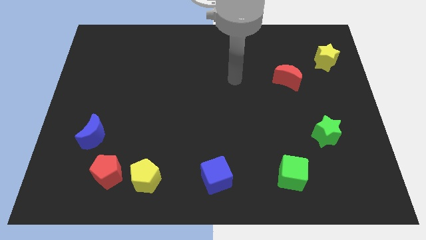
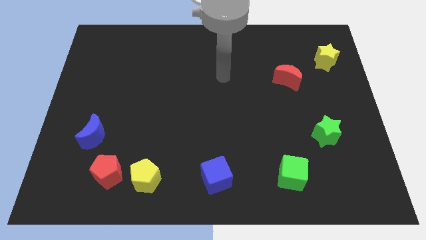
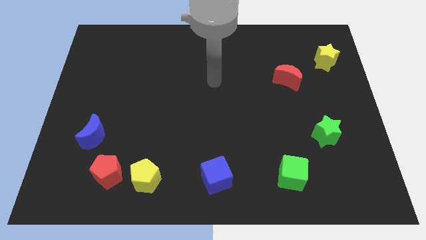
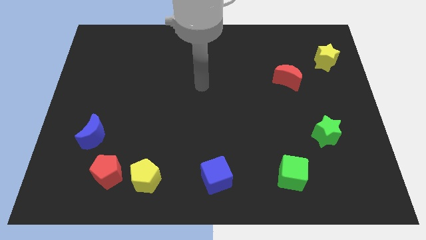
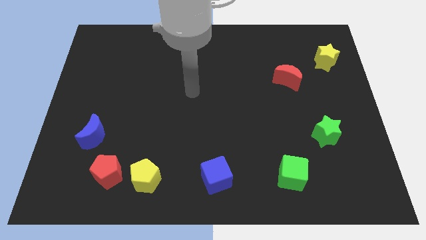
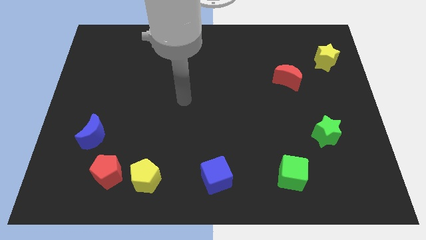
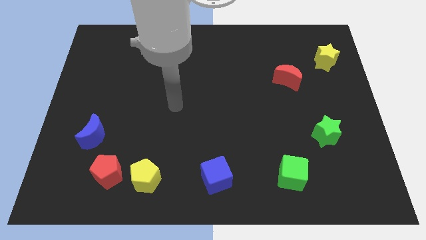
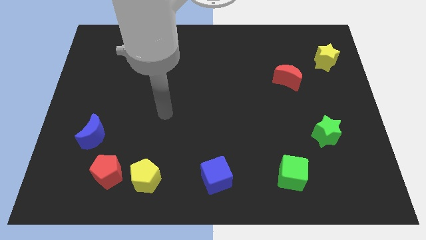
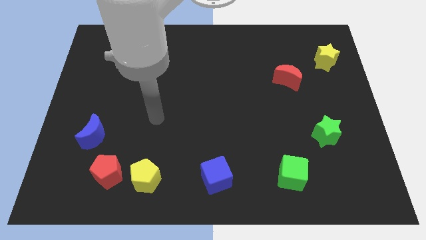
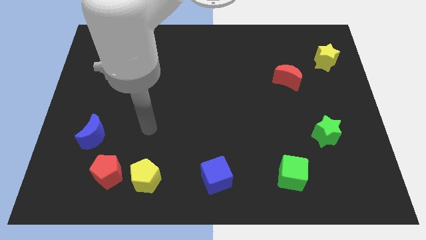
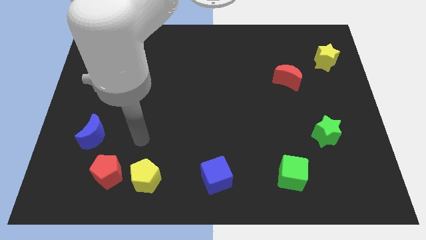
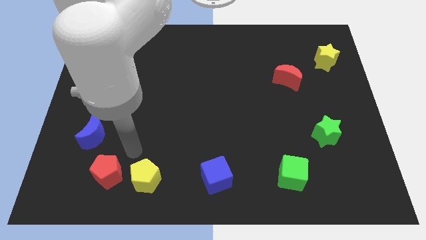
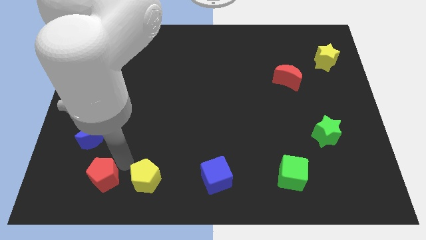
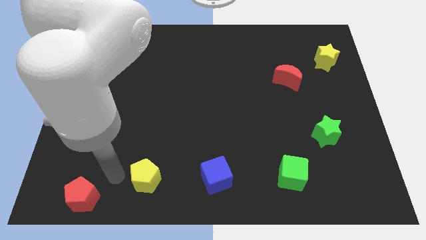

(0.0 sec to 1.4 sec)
pull the yellow pentagon apart from the red pentagon

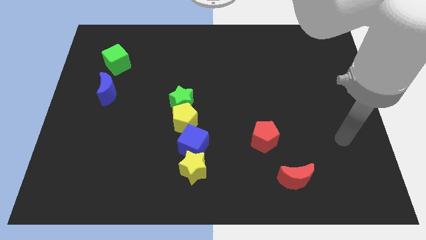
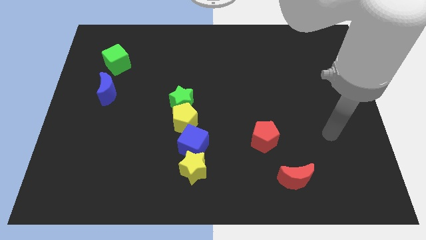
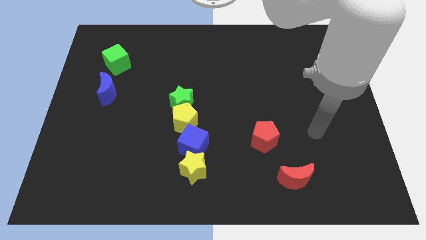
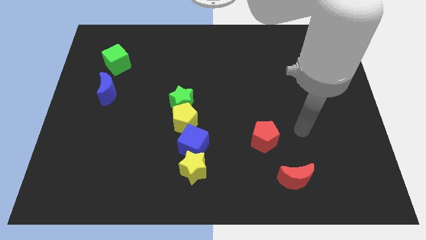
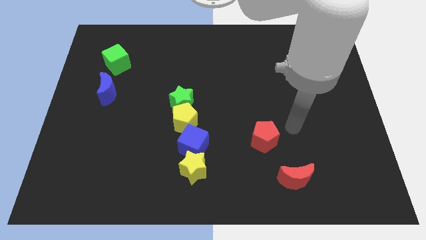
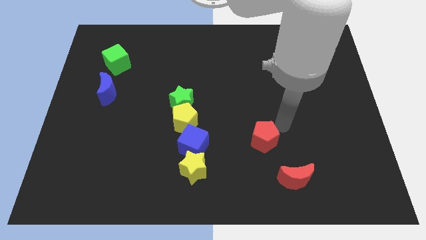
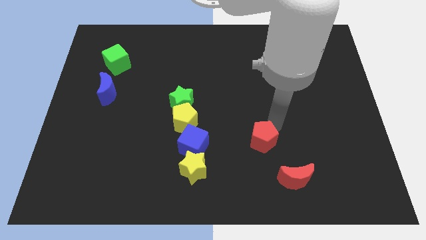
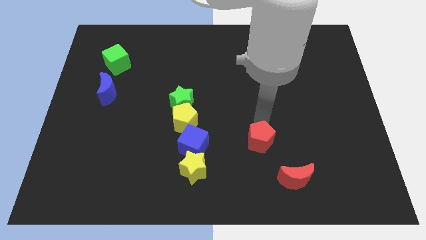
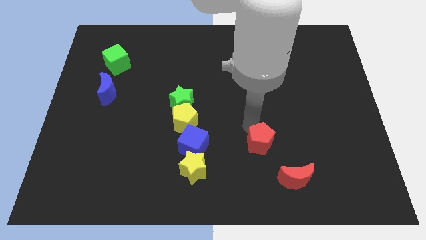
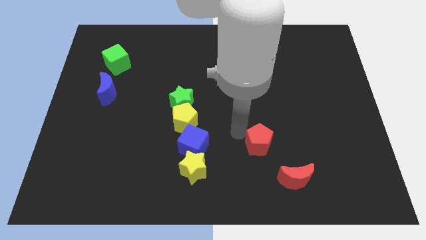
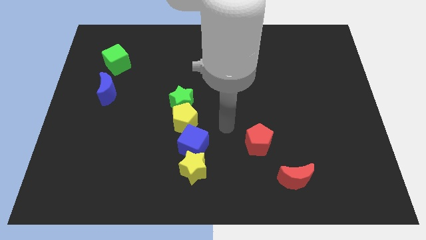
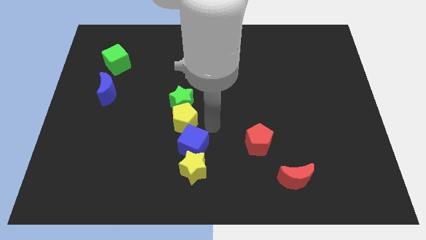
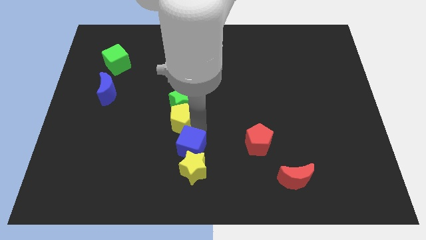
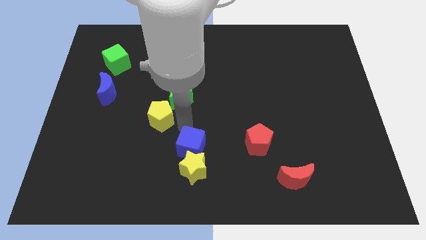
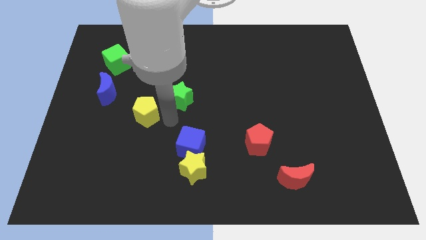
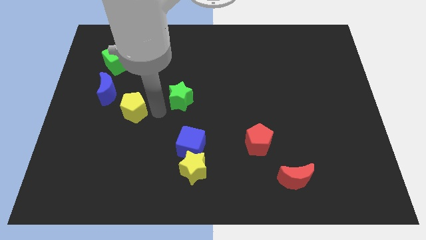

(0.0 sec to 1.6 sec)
move the green star away from the yellow pentagon

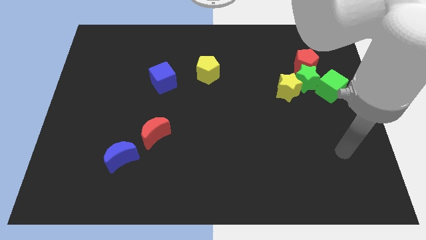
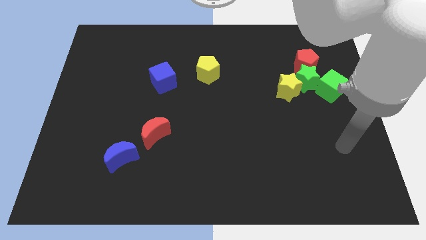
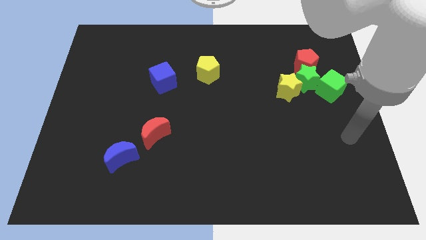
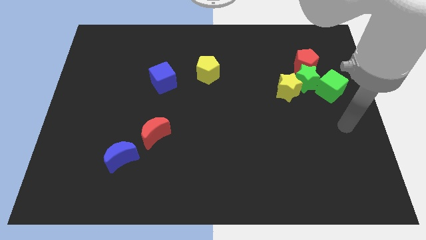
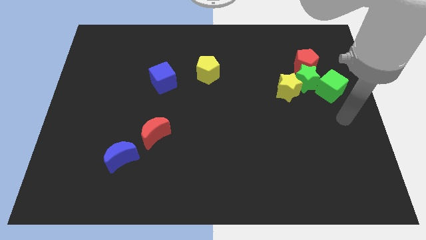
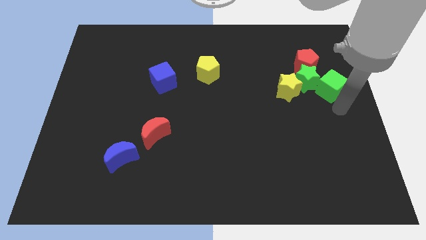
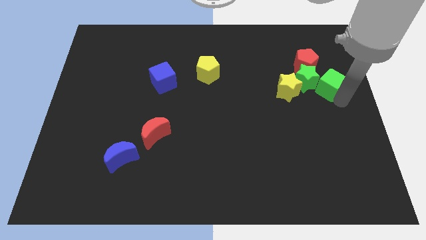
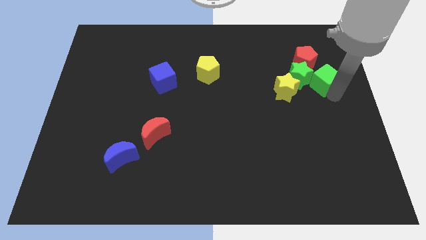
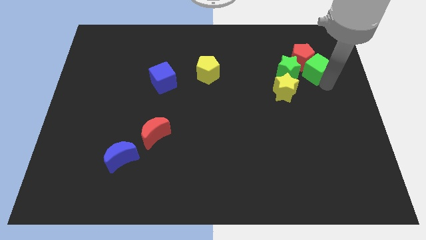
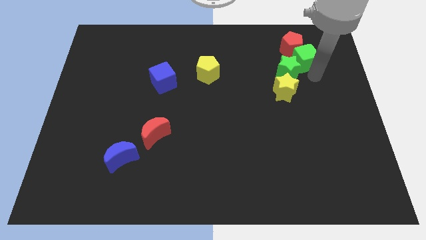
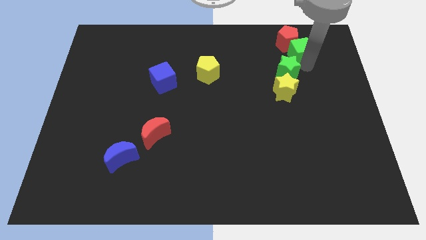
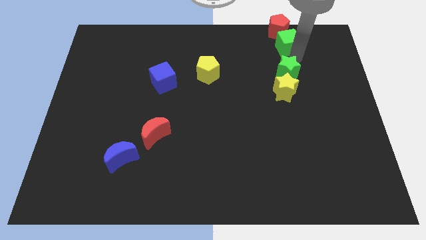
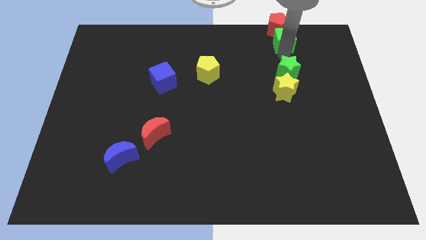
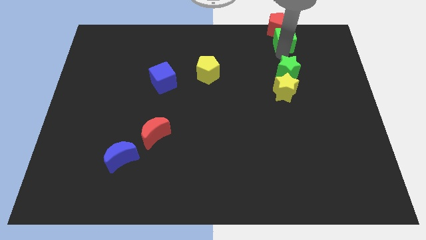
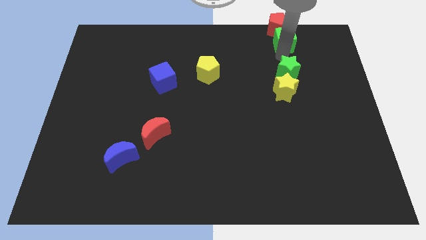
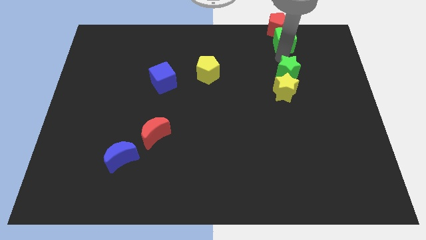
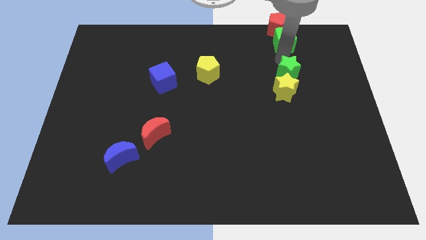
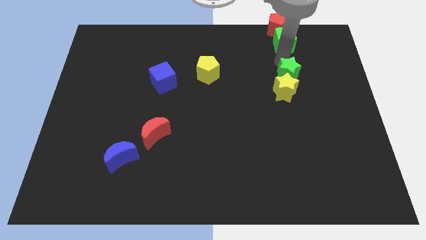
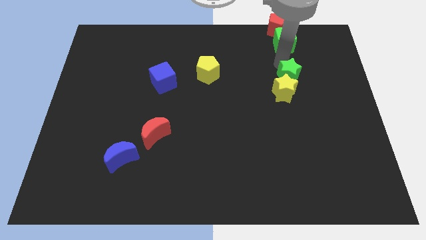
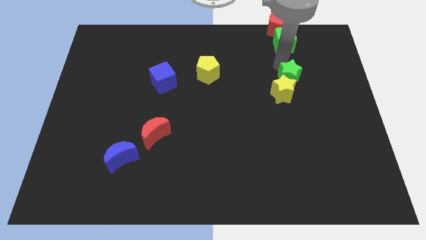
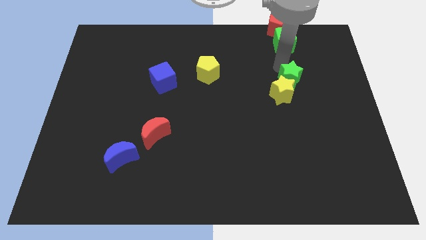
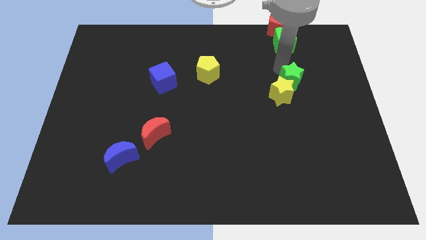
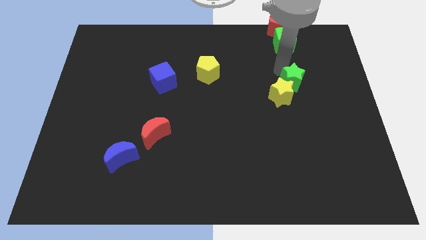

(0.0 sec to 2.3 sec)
separate the green star from the group of blocks

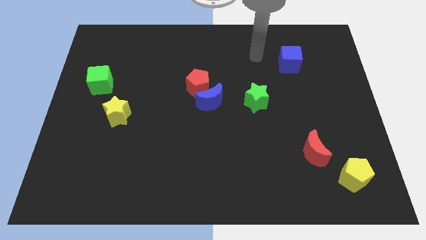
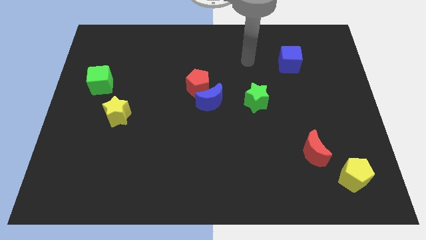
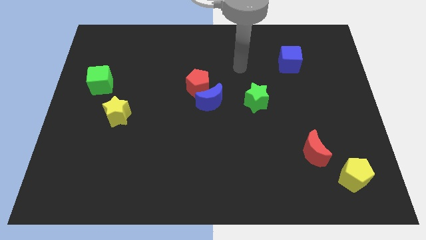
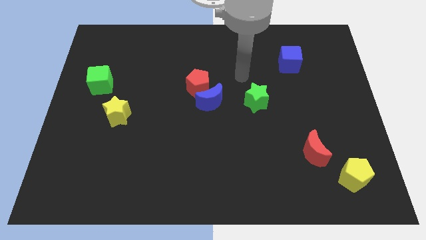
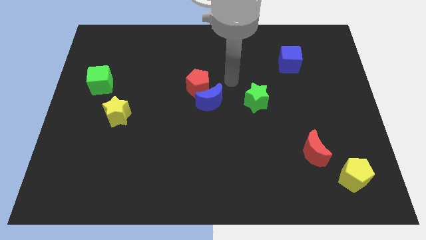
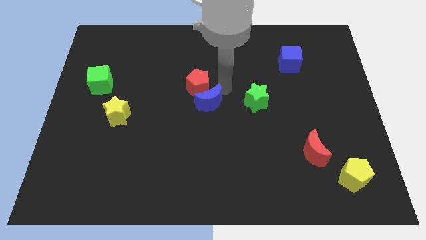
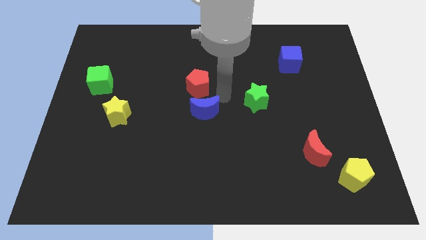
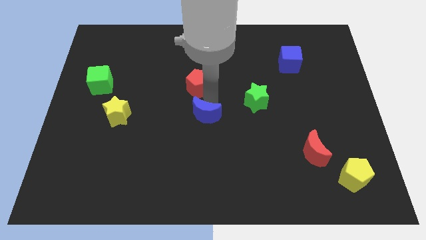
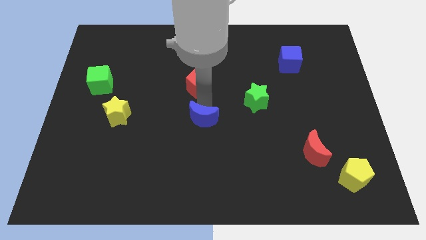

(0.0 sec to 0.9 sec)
separate the red pentagon from the blue moon

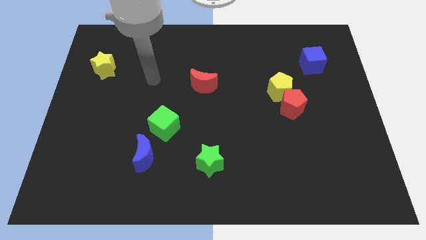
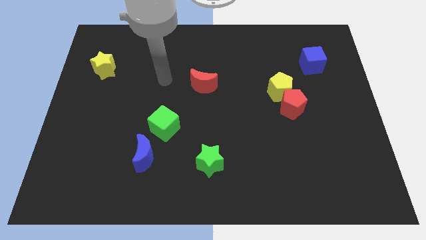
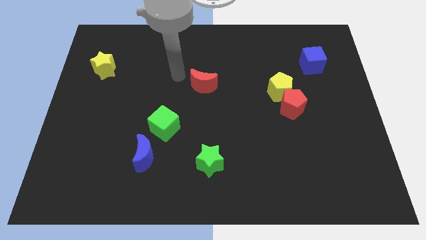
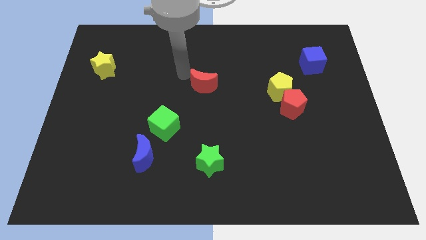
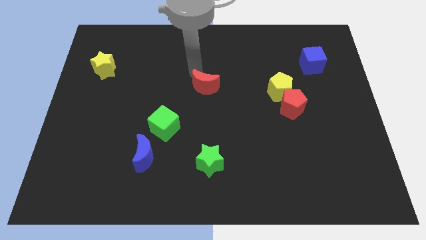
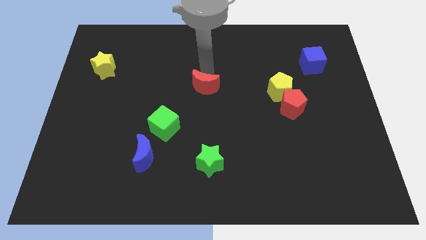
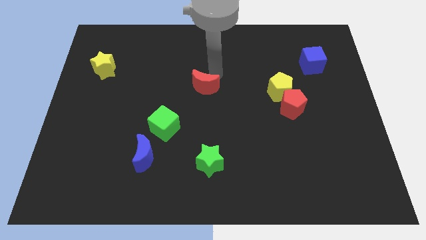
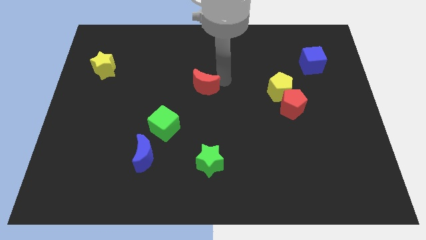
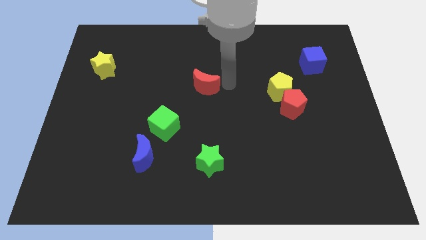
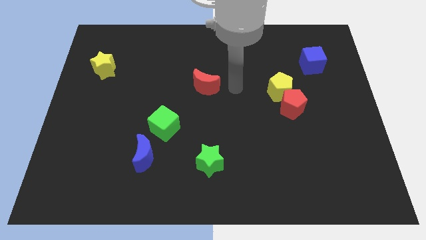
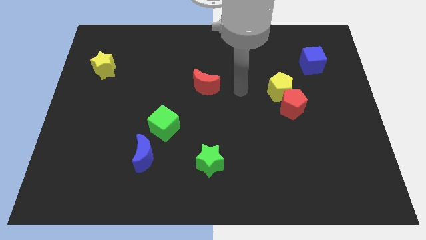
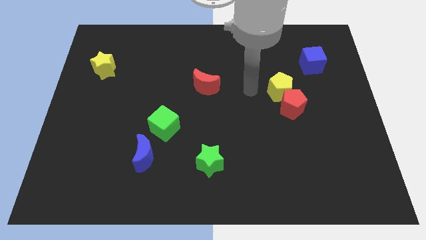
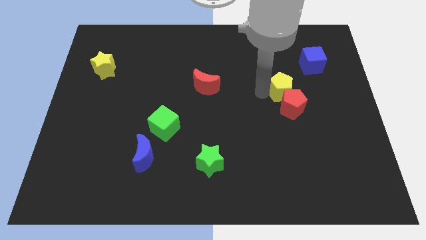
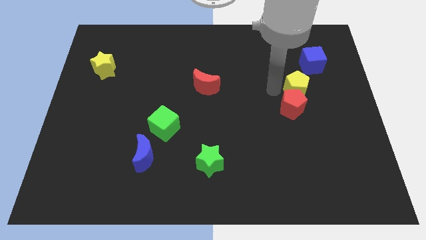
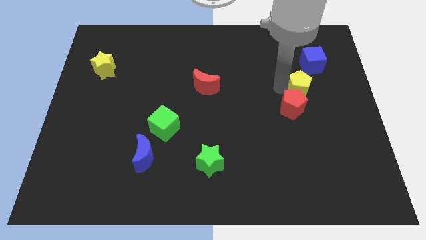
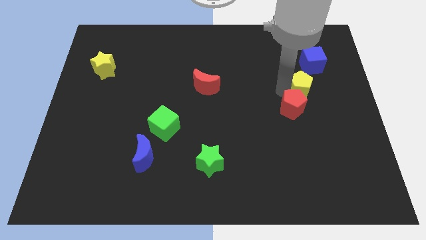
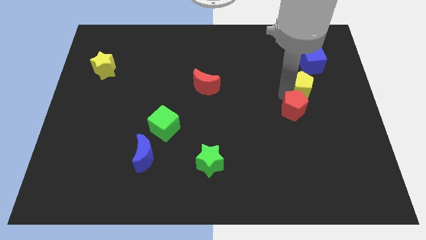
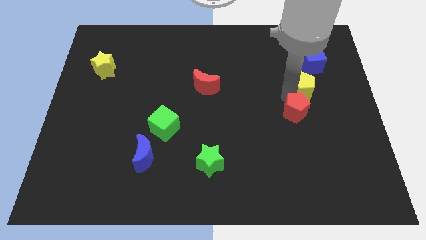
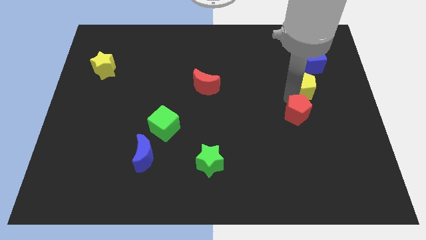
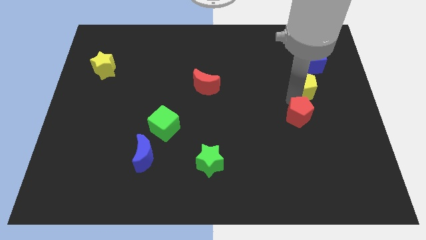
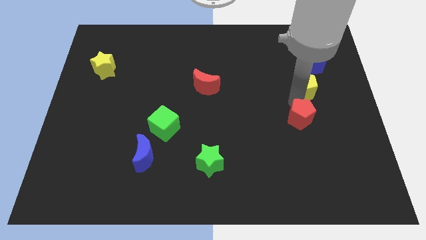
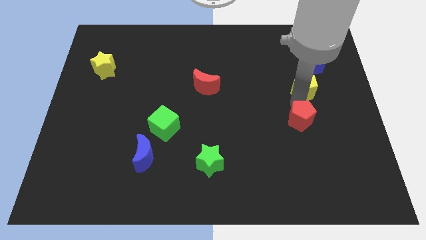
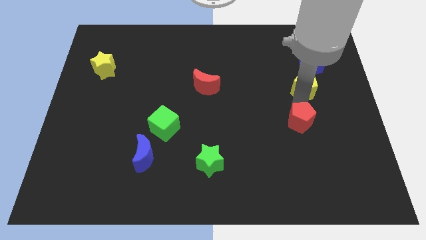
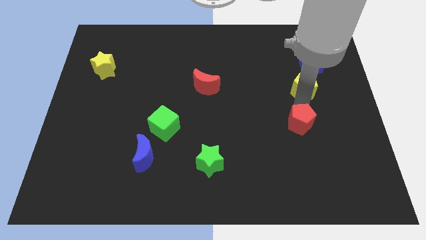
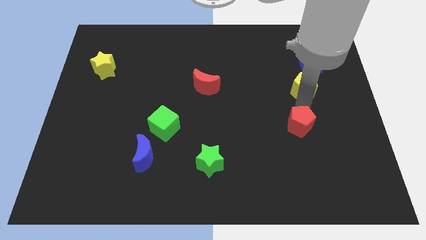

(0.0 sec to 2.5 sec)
pull the red pentagon apart from the yellow pentagon

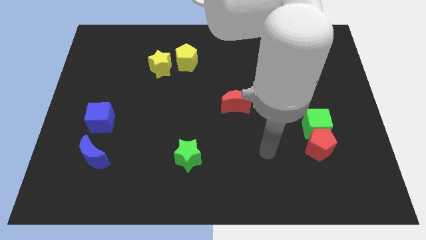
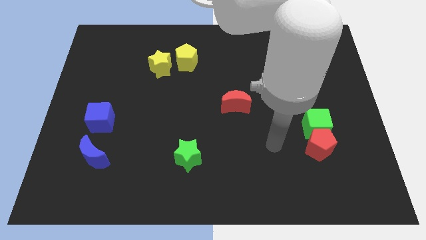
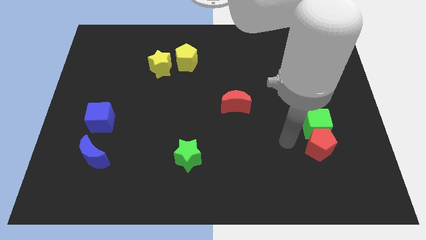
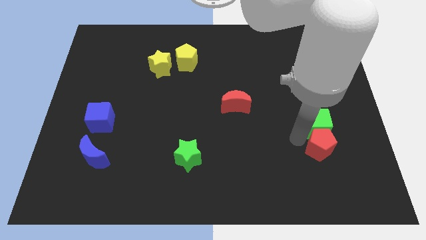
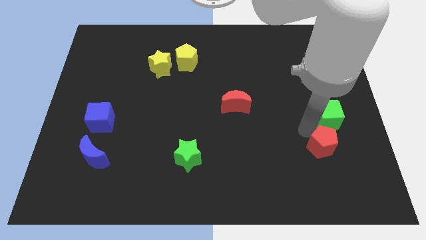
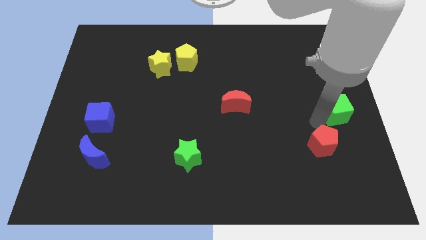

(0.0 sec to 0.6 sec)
separate the red pentagon from the green cube
